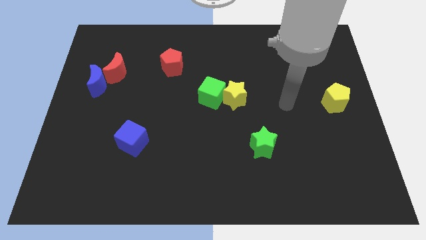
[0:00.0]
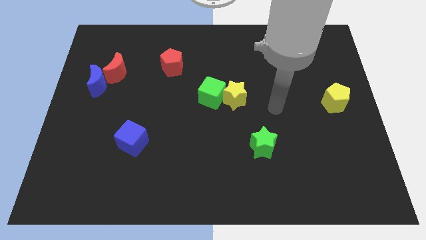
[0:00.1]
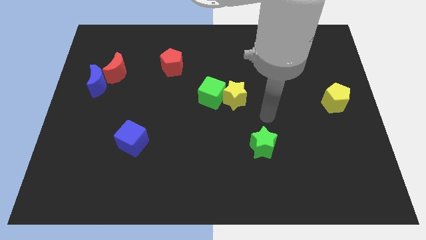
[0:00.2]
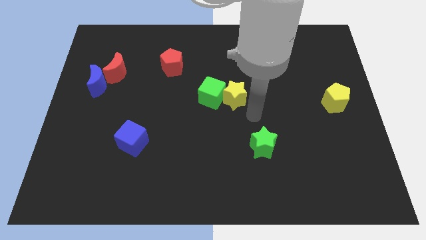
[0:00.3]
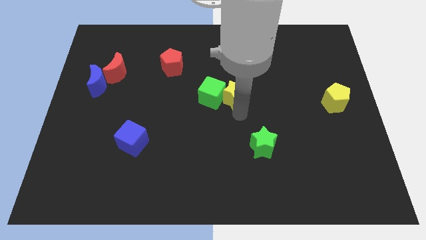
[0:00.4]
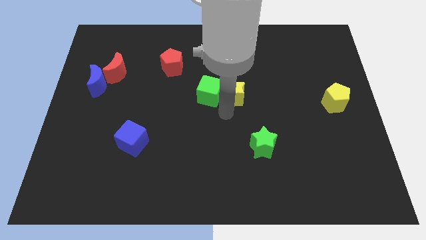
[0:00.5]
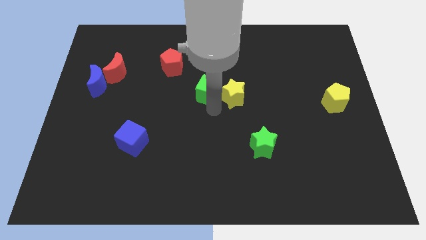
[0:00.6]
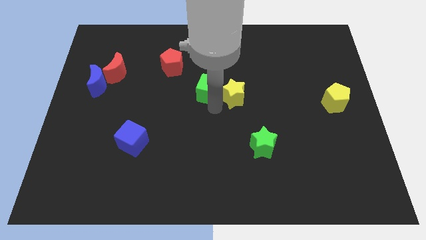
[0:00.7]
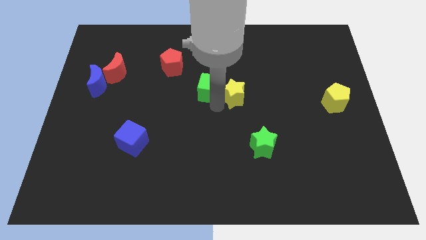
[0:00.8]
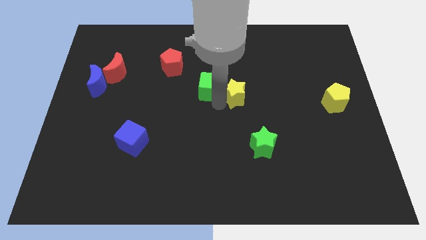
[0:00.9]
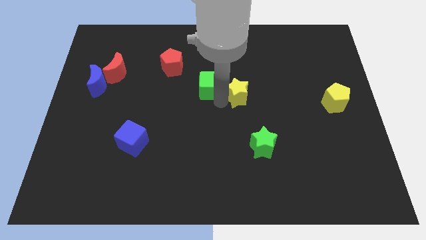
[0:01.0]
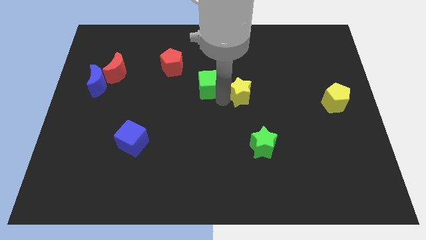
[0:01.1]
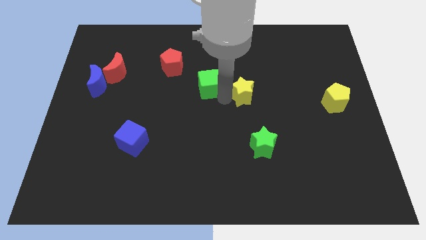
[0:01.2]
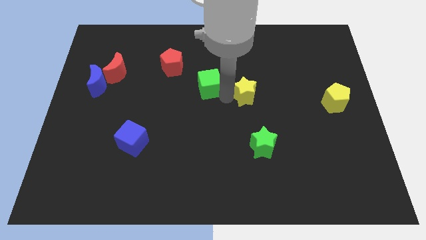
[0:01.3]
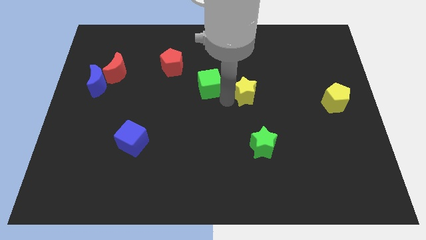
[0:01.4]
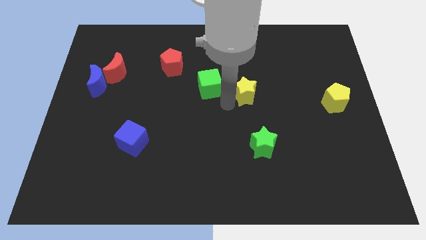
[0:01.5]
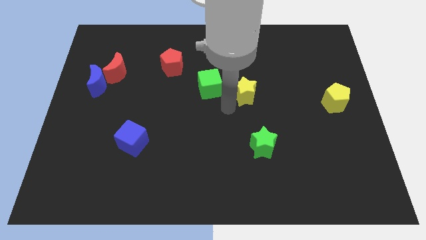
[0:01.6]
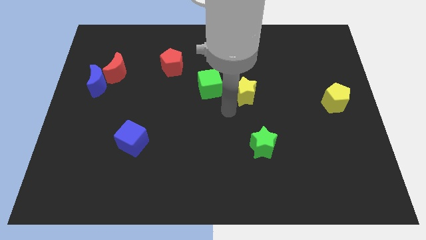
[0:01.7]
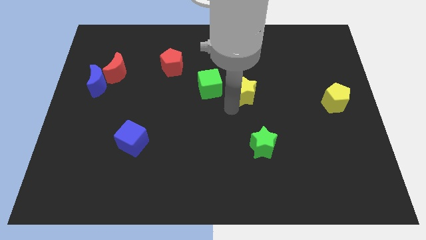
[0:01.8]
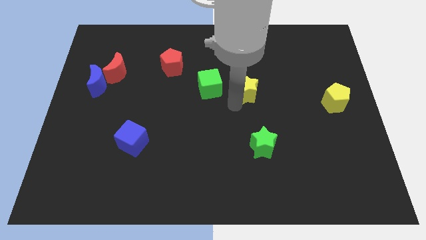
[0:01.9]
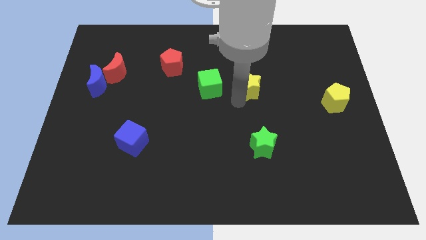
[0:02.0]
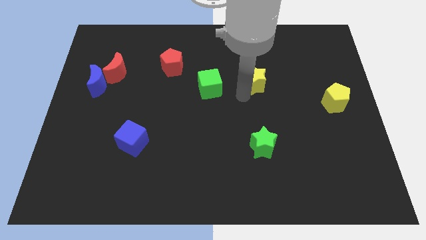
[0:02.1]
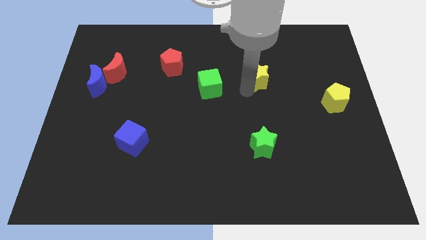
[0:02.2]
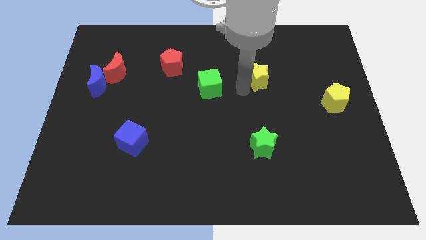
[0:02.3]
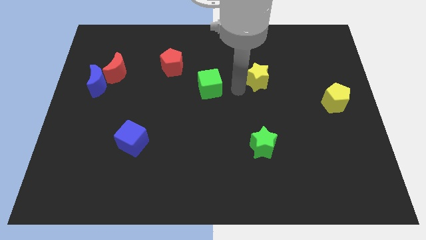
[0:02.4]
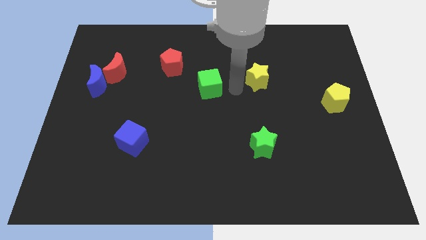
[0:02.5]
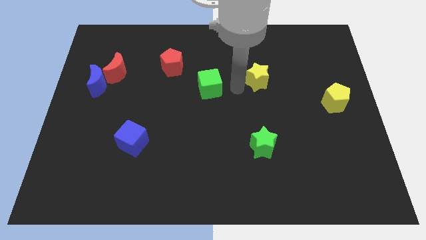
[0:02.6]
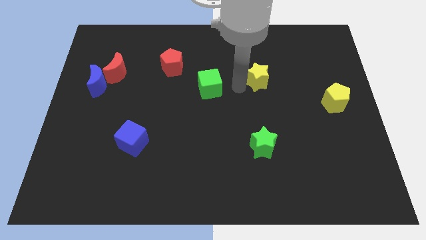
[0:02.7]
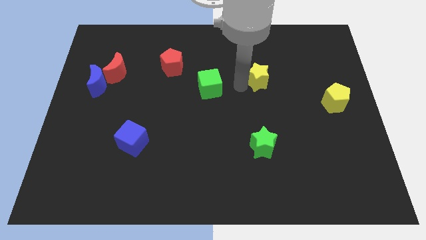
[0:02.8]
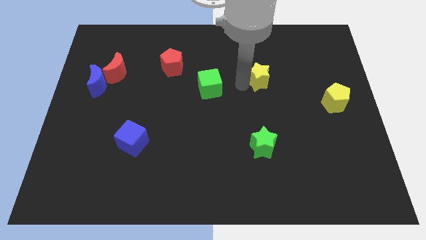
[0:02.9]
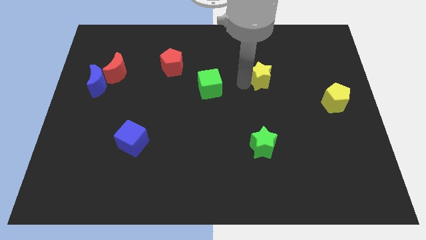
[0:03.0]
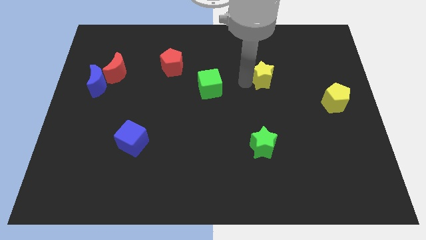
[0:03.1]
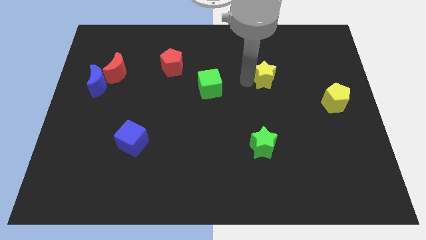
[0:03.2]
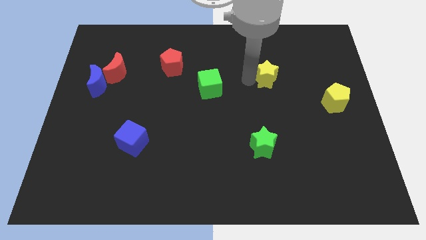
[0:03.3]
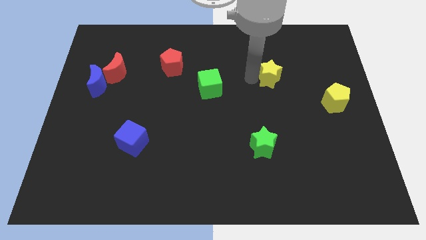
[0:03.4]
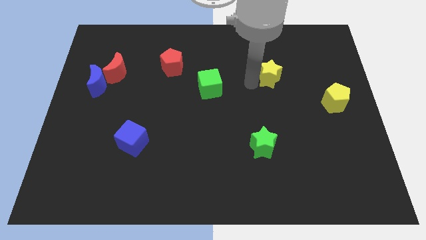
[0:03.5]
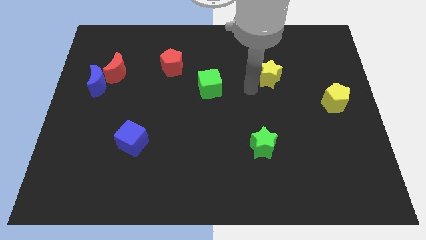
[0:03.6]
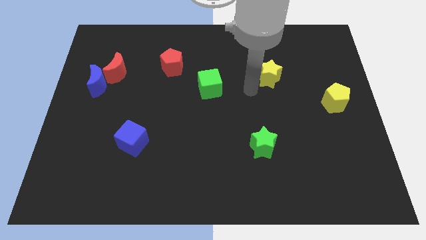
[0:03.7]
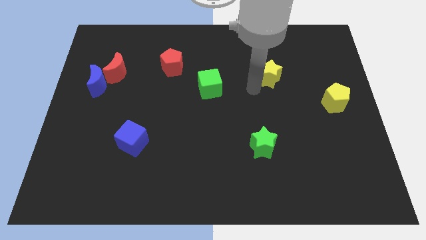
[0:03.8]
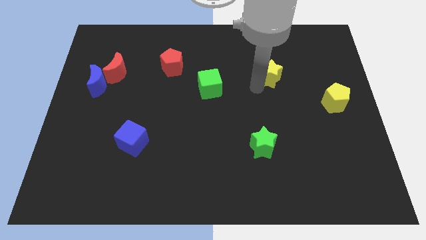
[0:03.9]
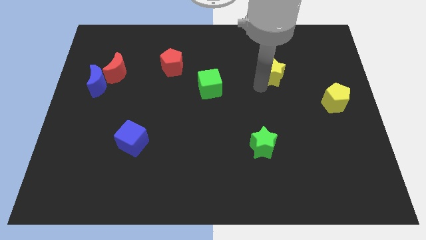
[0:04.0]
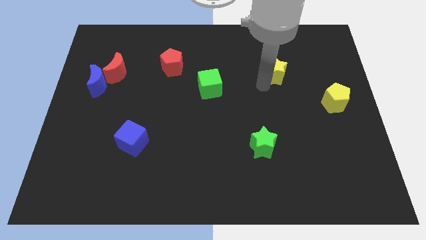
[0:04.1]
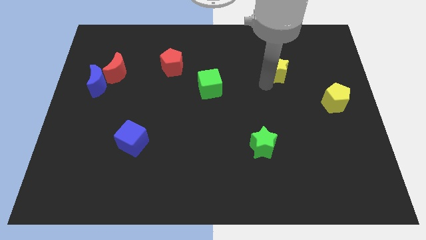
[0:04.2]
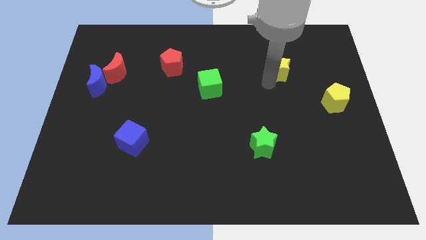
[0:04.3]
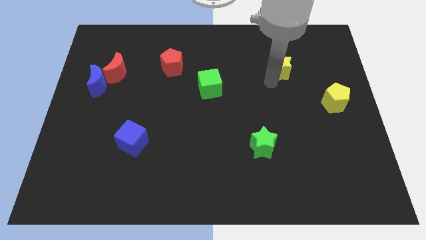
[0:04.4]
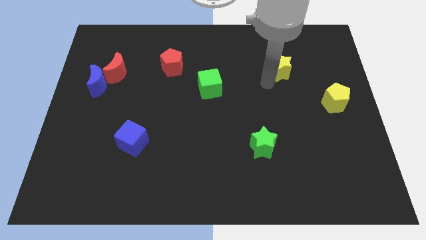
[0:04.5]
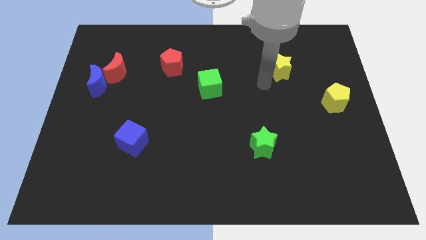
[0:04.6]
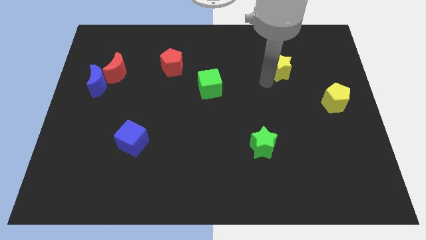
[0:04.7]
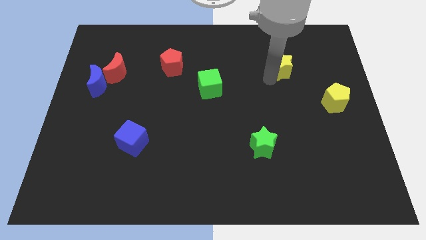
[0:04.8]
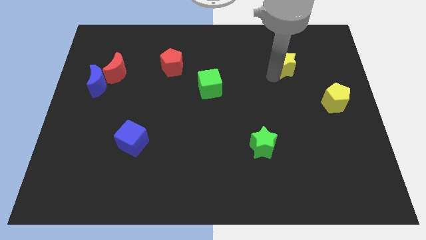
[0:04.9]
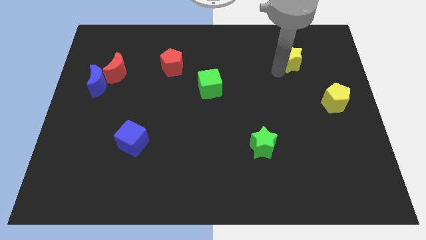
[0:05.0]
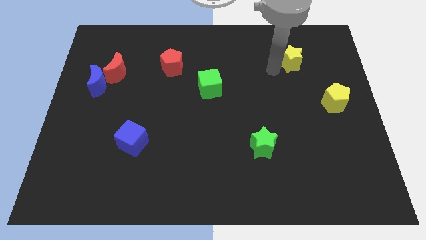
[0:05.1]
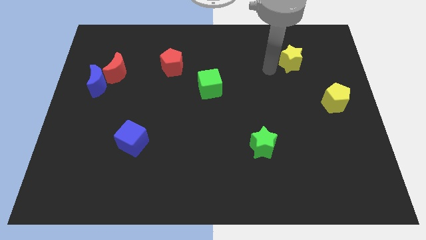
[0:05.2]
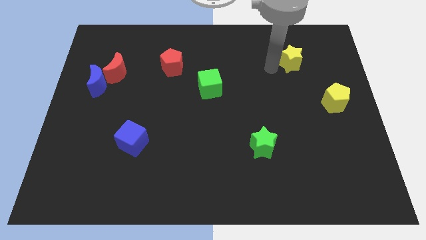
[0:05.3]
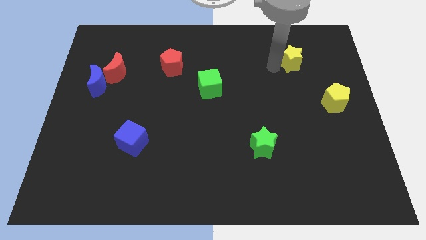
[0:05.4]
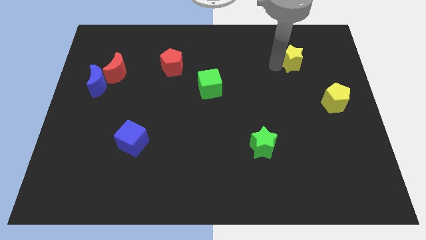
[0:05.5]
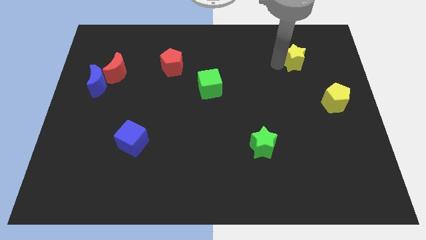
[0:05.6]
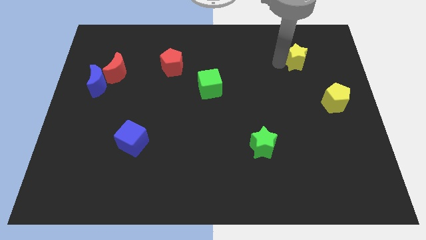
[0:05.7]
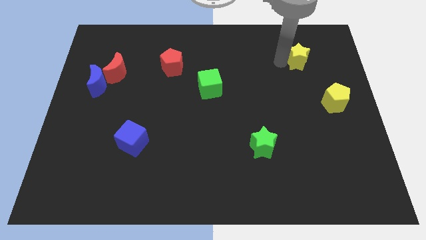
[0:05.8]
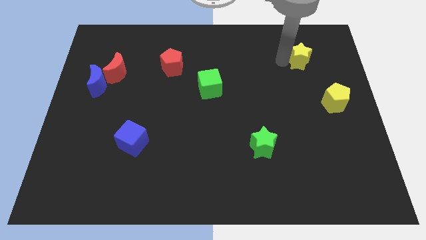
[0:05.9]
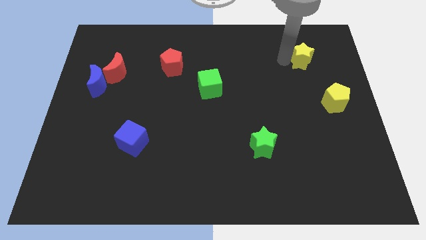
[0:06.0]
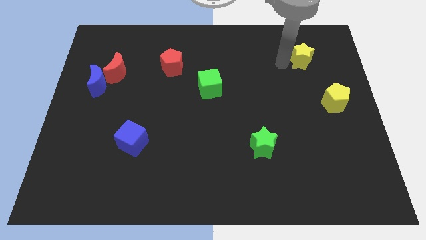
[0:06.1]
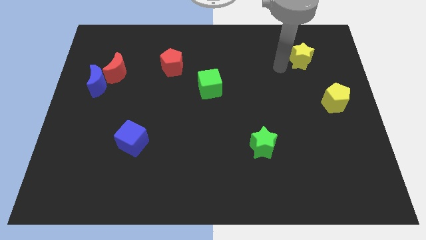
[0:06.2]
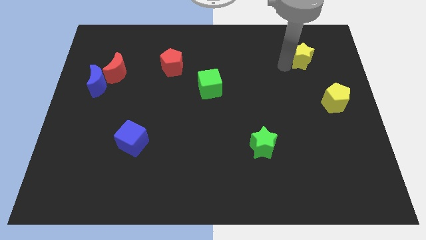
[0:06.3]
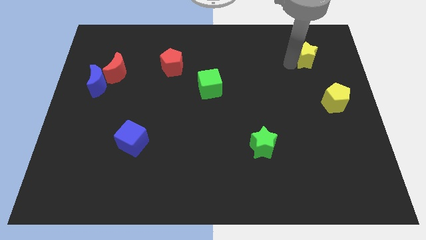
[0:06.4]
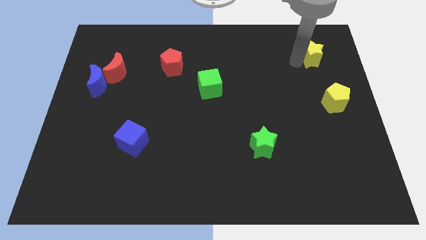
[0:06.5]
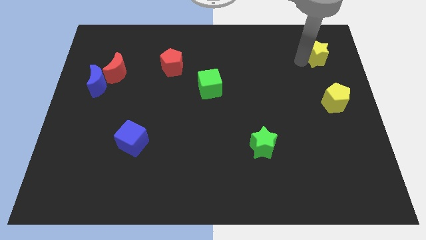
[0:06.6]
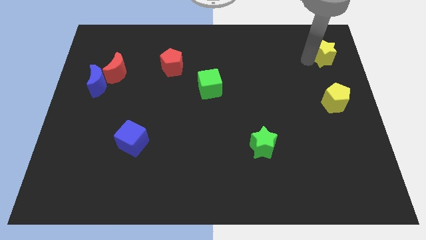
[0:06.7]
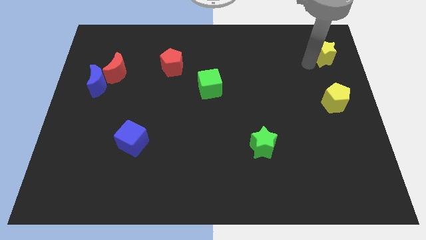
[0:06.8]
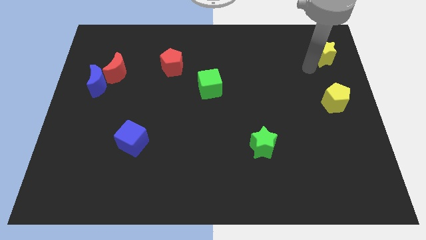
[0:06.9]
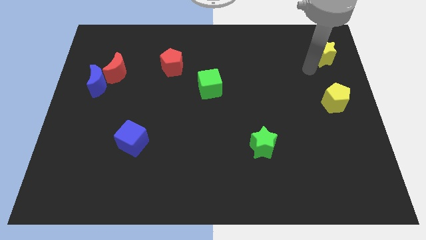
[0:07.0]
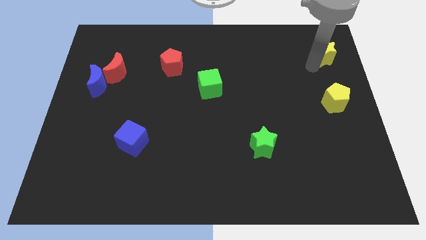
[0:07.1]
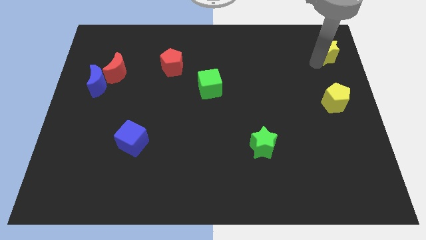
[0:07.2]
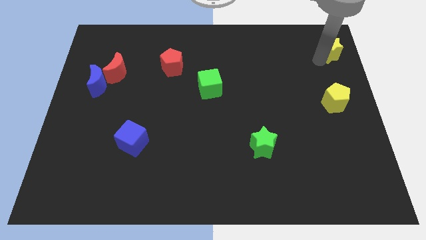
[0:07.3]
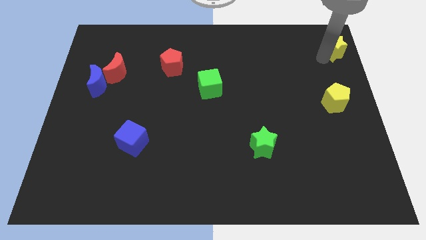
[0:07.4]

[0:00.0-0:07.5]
push the yellow star to the upper right corner
